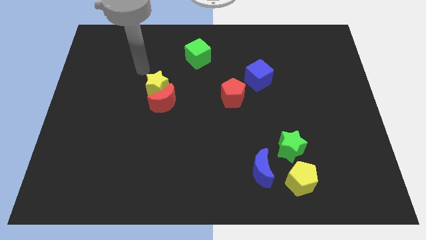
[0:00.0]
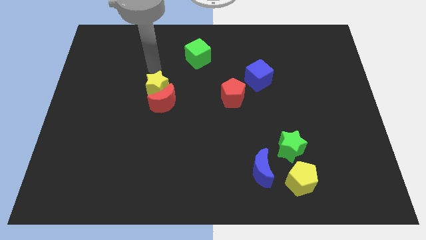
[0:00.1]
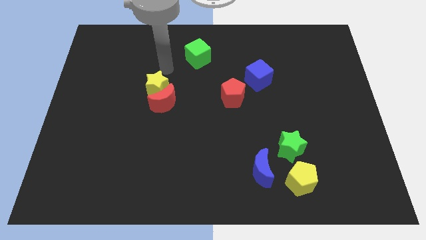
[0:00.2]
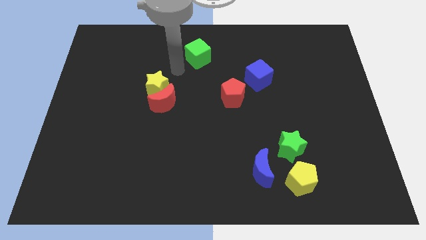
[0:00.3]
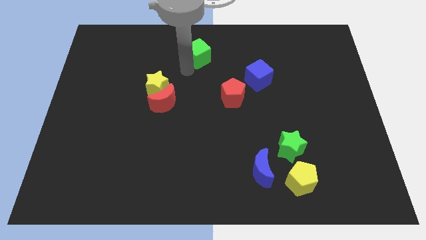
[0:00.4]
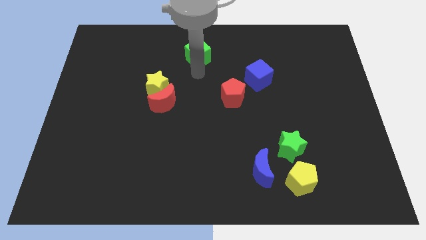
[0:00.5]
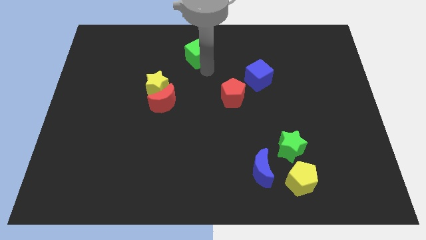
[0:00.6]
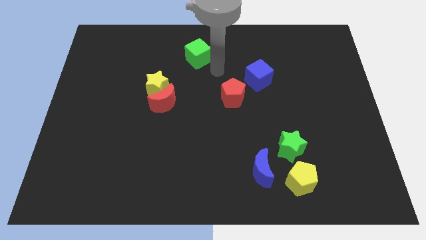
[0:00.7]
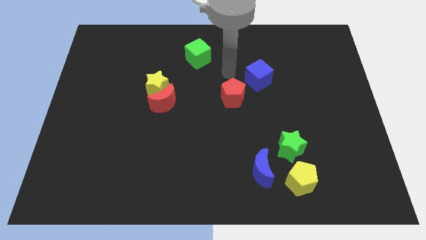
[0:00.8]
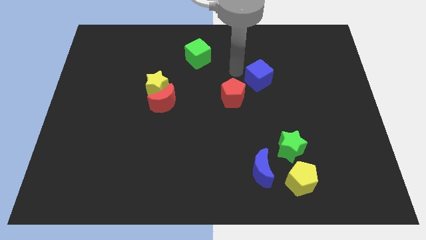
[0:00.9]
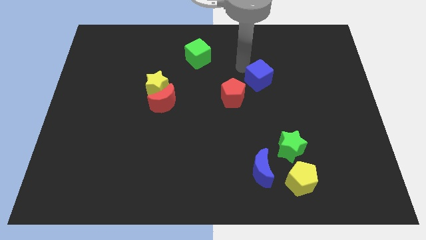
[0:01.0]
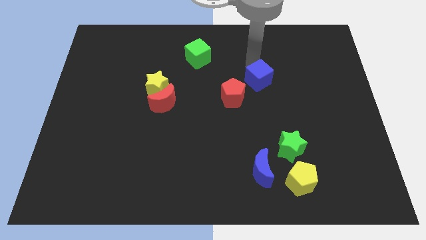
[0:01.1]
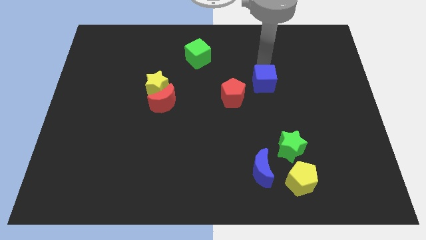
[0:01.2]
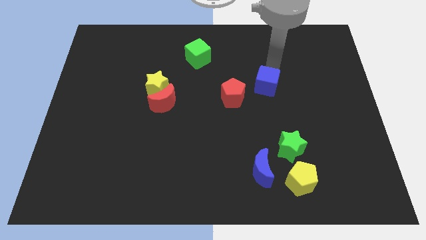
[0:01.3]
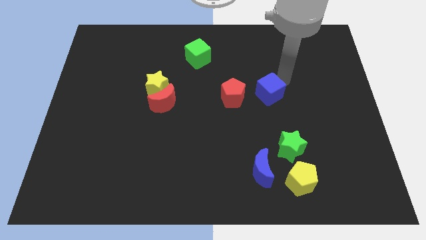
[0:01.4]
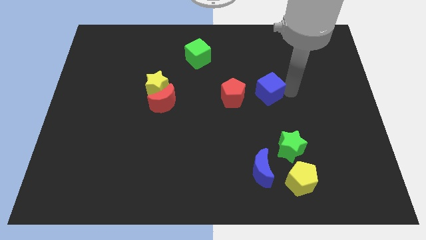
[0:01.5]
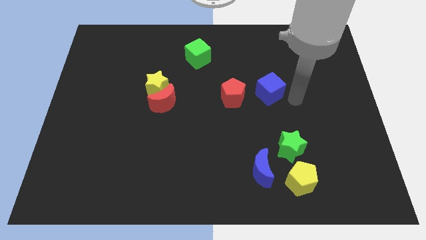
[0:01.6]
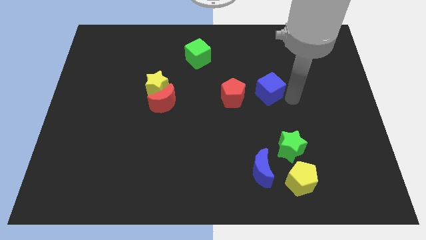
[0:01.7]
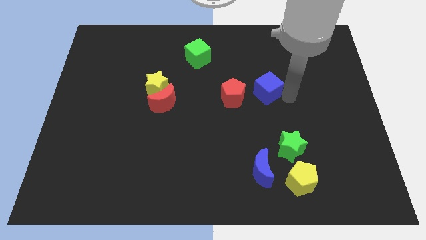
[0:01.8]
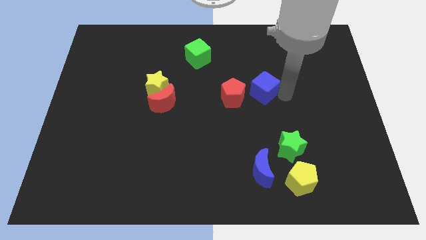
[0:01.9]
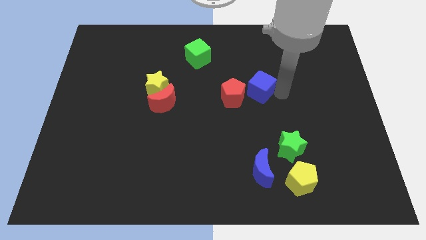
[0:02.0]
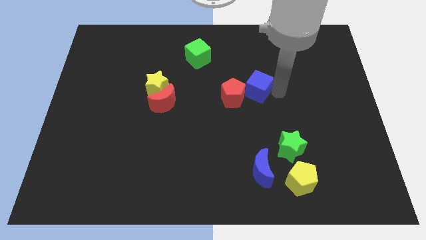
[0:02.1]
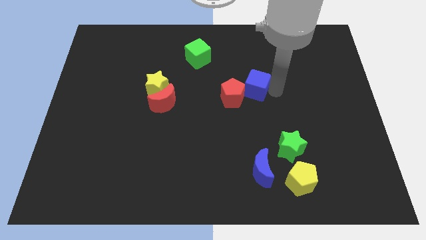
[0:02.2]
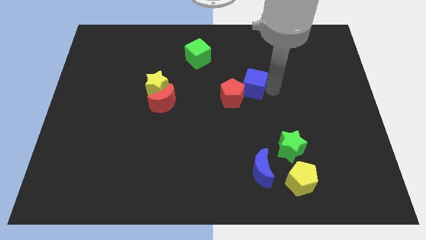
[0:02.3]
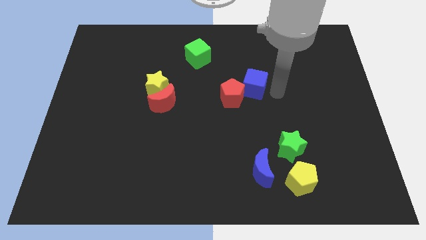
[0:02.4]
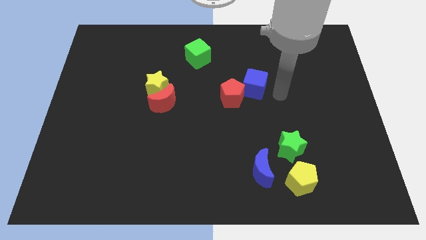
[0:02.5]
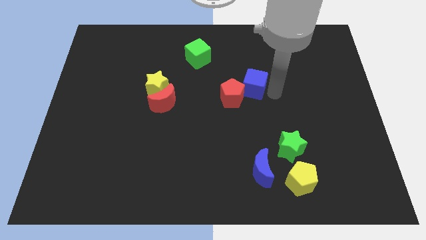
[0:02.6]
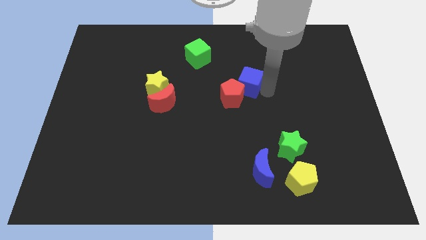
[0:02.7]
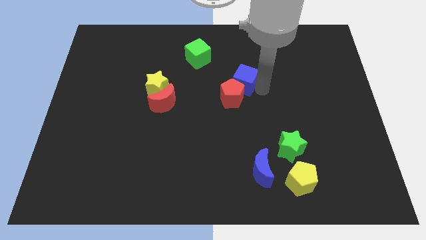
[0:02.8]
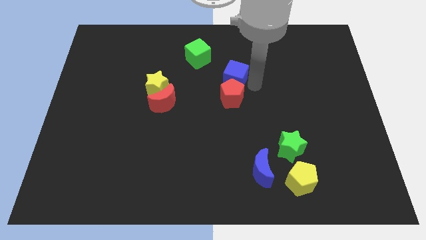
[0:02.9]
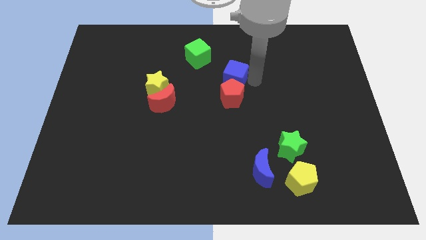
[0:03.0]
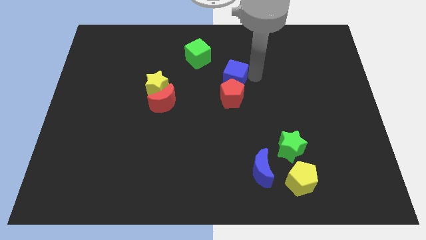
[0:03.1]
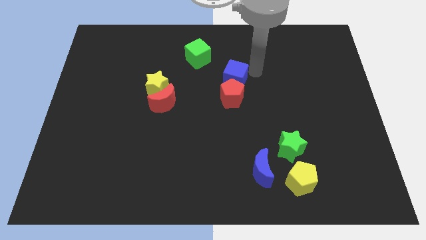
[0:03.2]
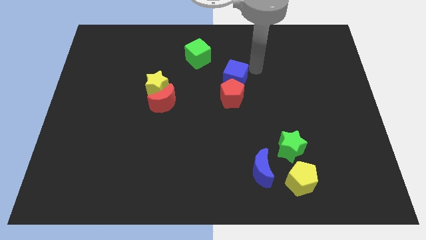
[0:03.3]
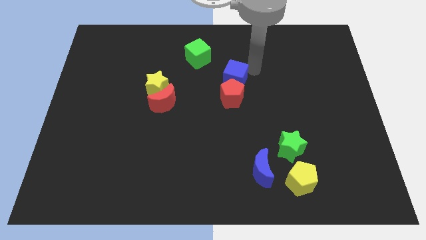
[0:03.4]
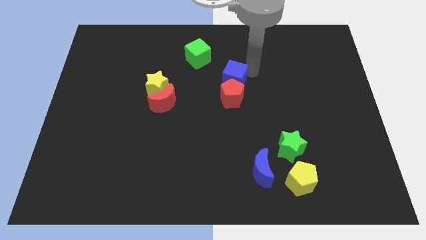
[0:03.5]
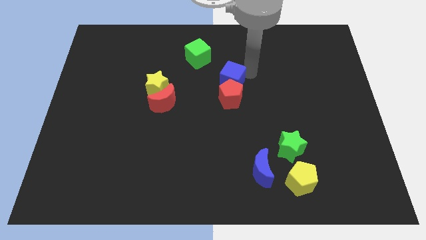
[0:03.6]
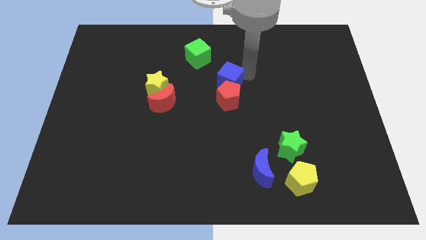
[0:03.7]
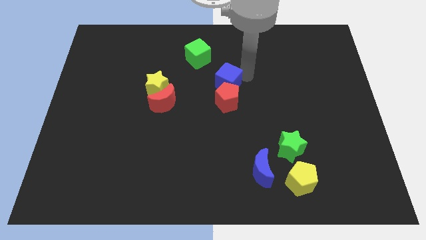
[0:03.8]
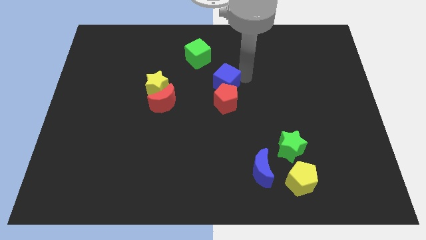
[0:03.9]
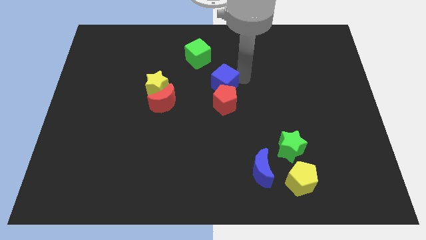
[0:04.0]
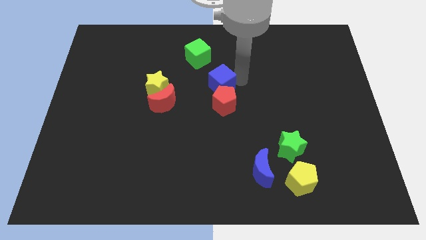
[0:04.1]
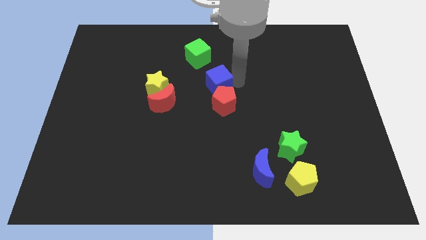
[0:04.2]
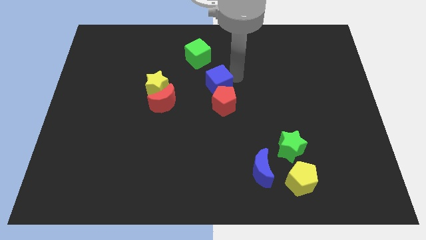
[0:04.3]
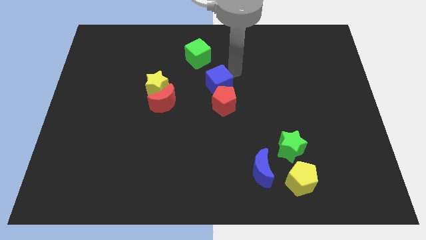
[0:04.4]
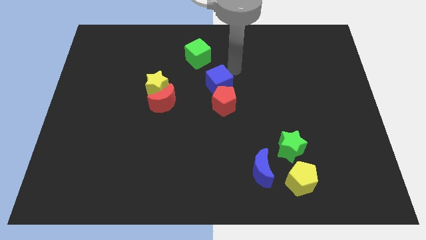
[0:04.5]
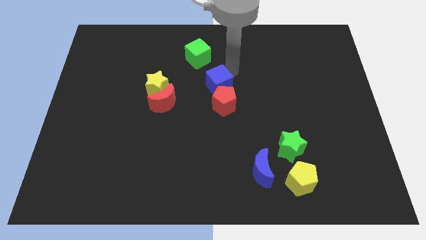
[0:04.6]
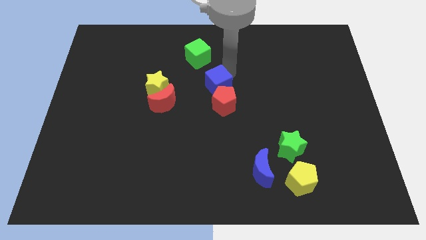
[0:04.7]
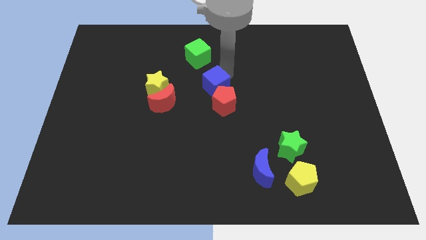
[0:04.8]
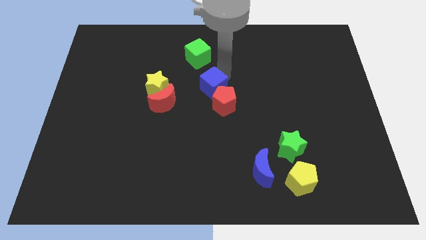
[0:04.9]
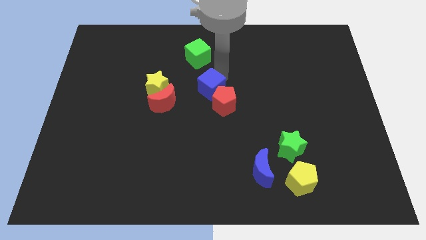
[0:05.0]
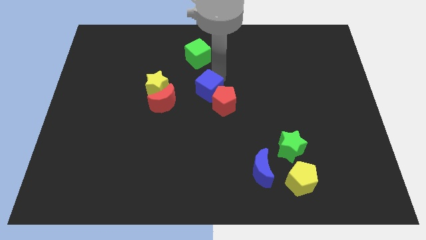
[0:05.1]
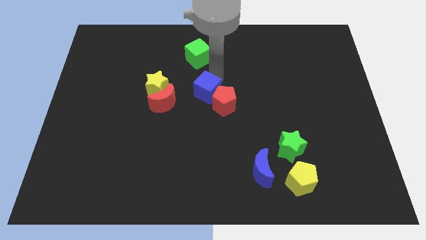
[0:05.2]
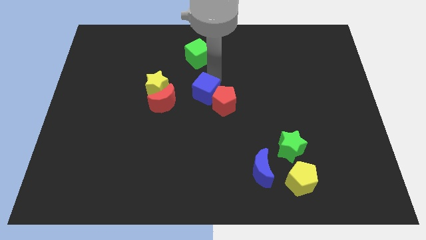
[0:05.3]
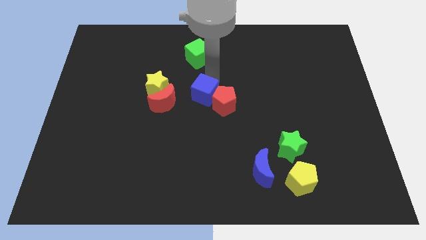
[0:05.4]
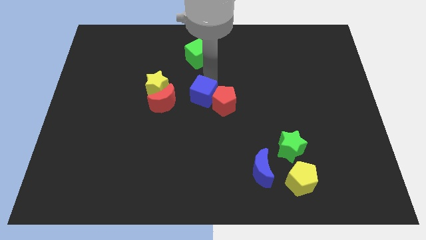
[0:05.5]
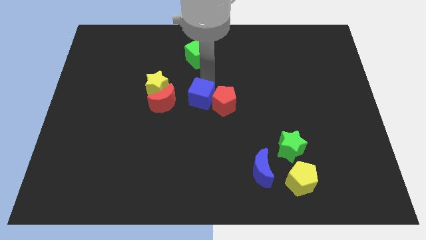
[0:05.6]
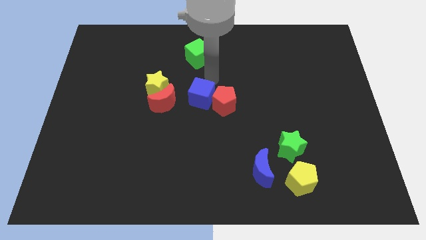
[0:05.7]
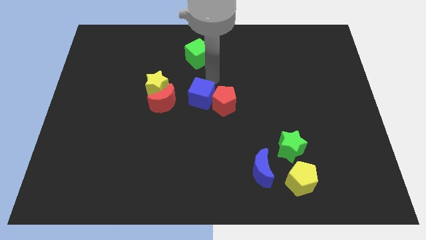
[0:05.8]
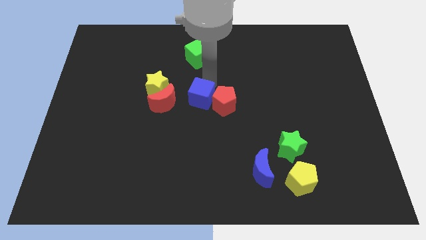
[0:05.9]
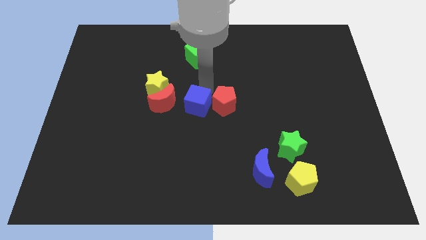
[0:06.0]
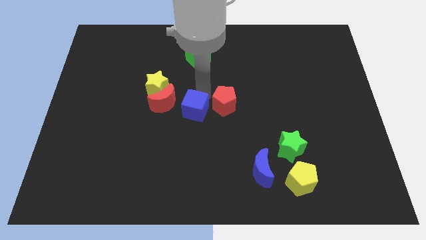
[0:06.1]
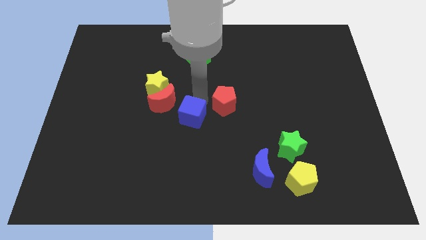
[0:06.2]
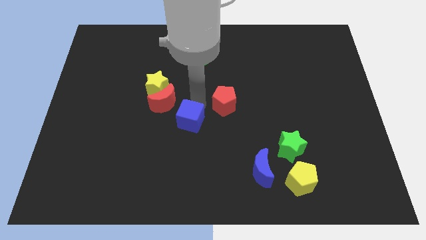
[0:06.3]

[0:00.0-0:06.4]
push the blue cube diagonally downwards and to the left

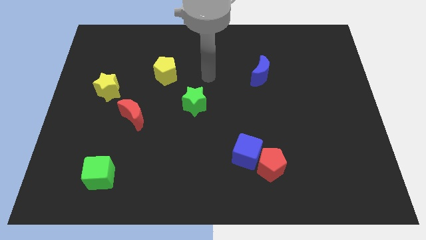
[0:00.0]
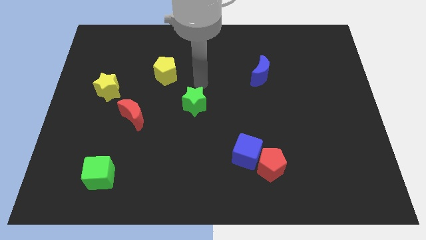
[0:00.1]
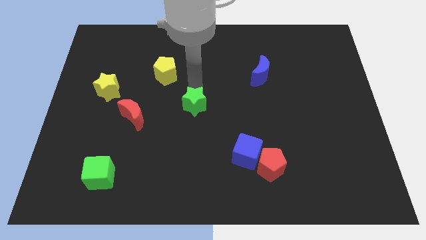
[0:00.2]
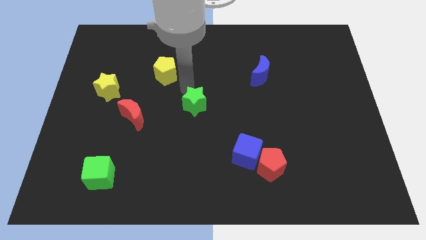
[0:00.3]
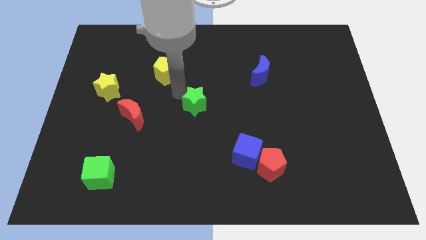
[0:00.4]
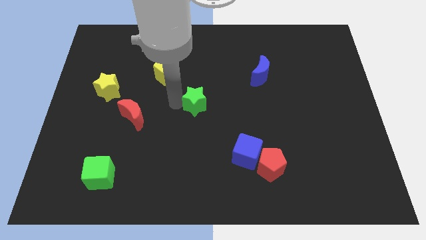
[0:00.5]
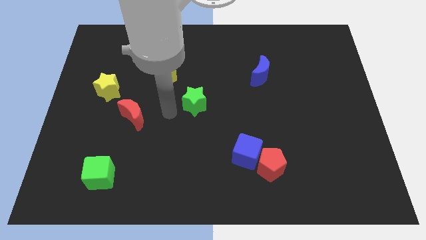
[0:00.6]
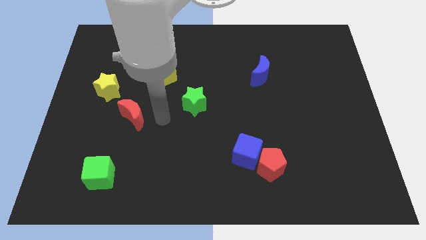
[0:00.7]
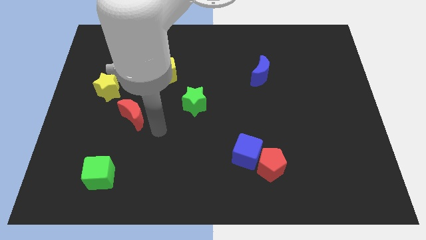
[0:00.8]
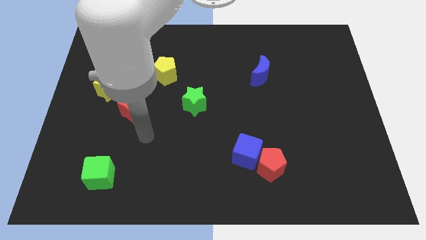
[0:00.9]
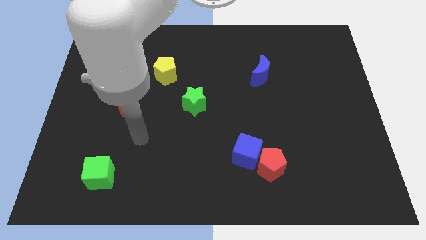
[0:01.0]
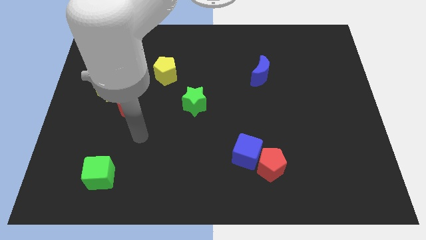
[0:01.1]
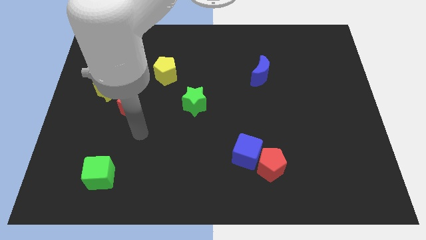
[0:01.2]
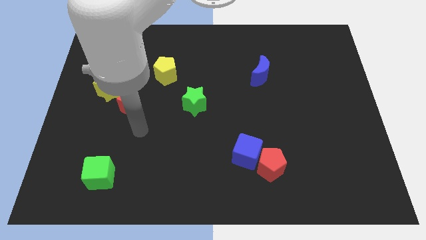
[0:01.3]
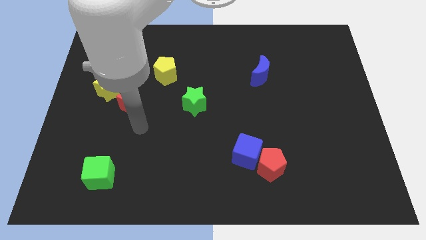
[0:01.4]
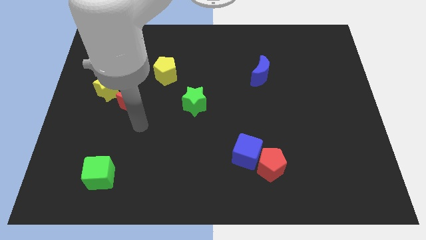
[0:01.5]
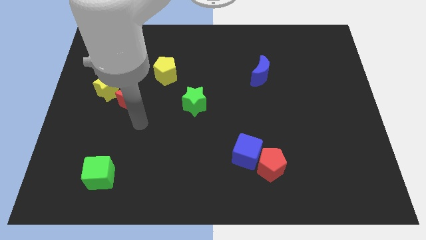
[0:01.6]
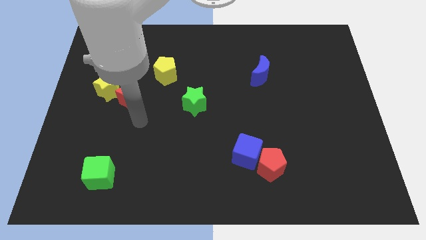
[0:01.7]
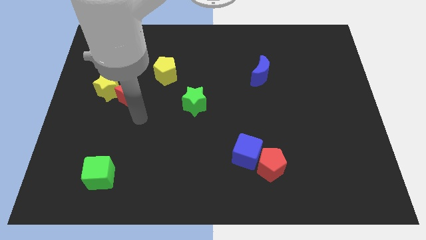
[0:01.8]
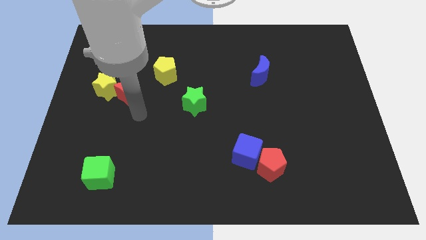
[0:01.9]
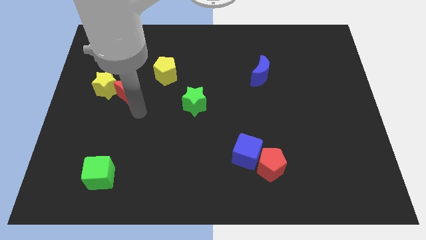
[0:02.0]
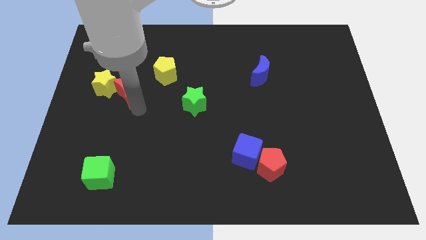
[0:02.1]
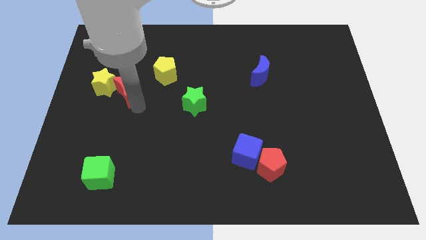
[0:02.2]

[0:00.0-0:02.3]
slightly move the red moon upwards
